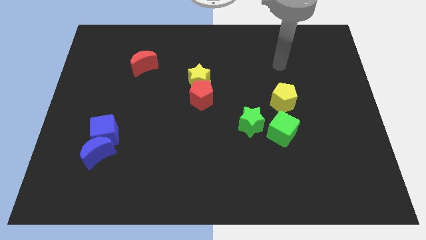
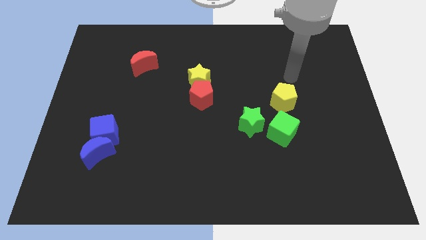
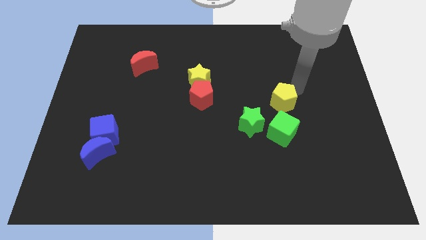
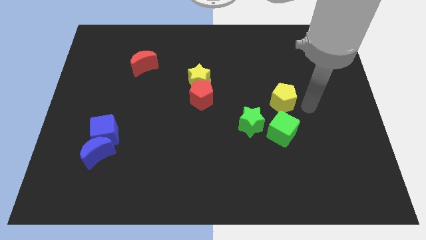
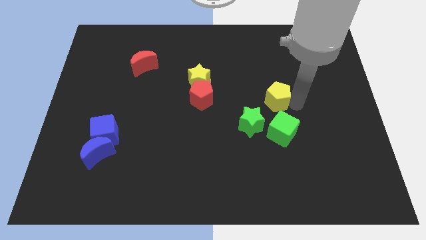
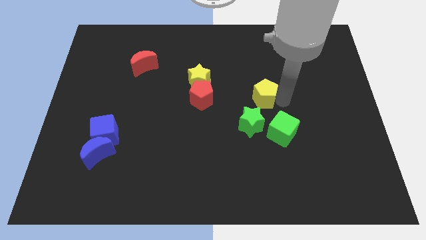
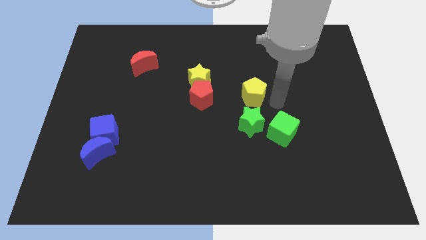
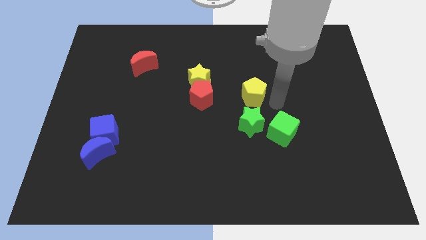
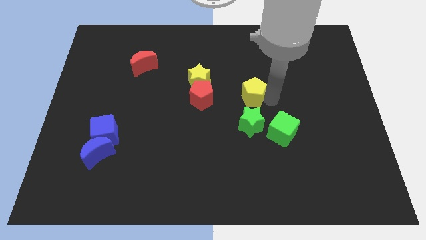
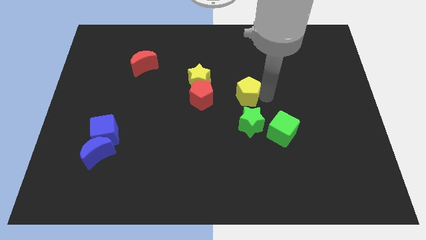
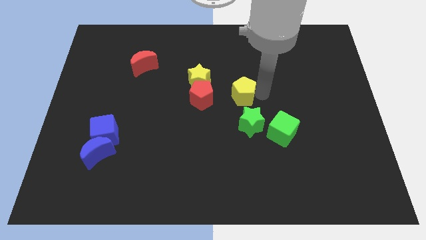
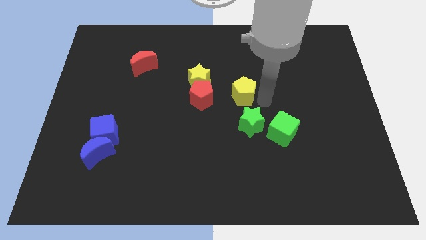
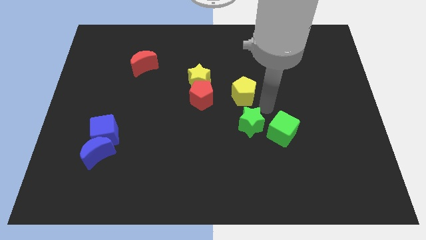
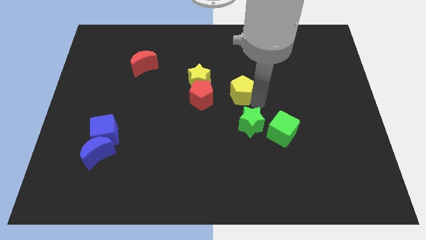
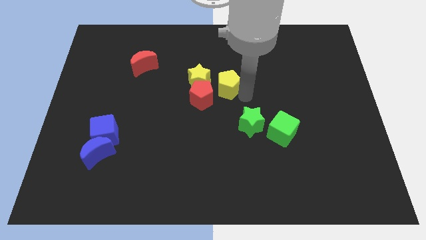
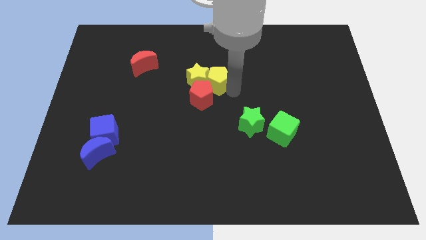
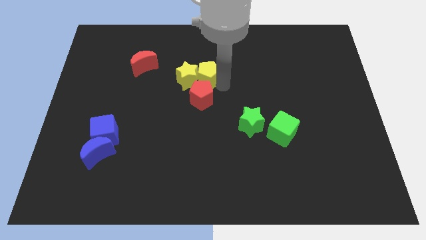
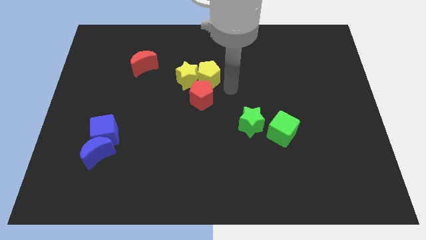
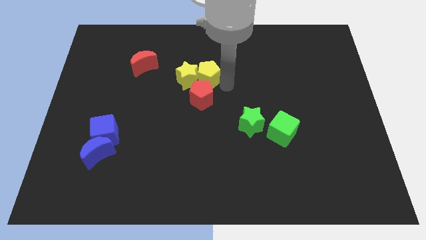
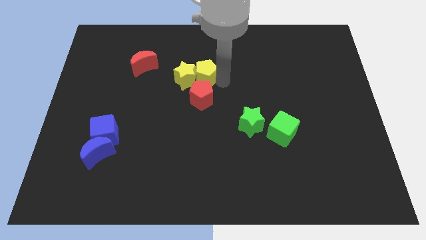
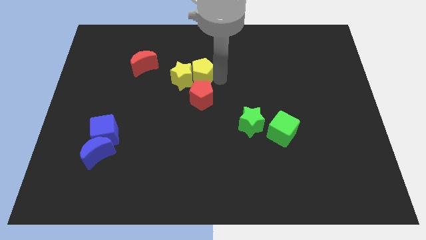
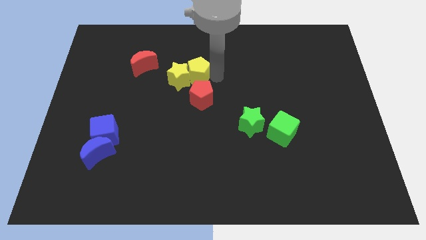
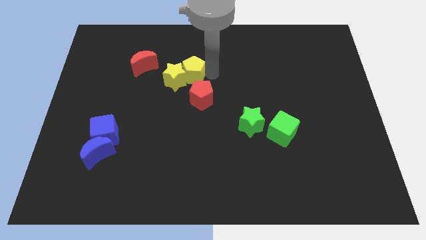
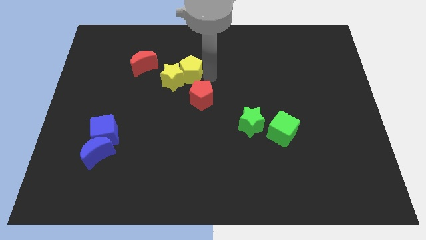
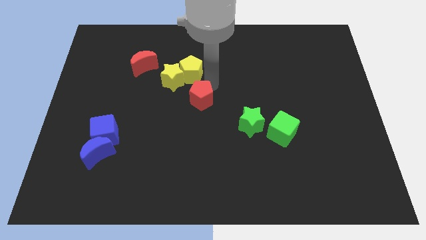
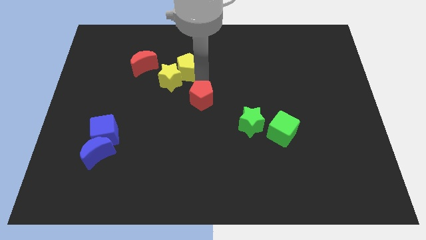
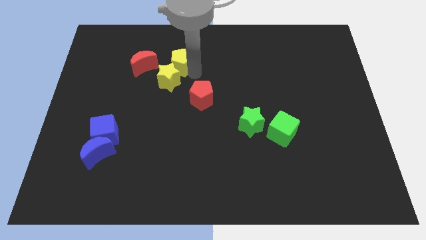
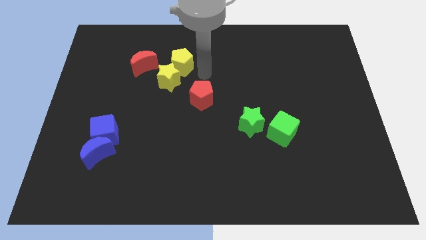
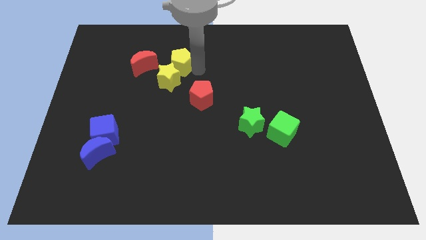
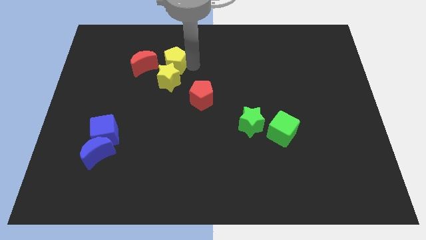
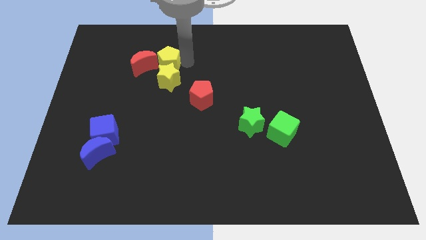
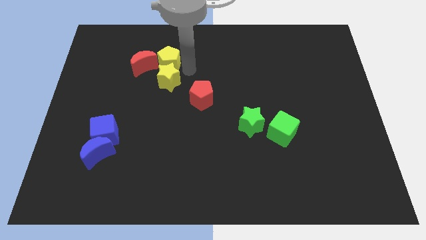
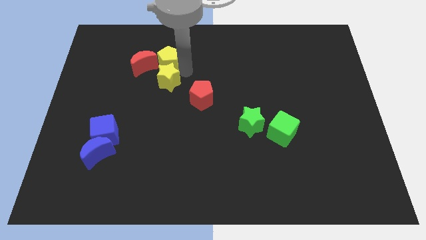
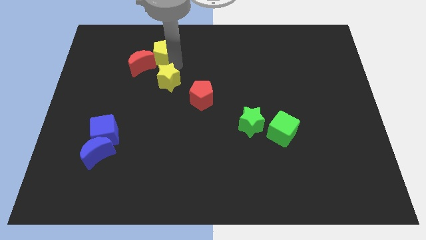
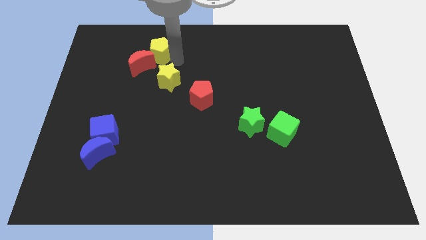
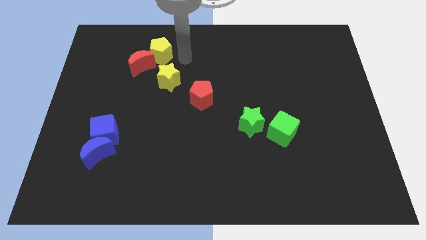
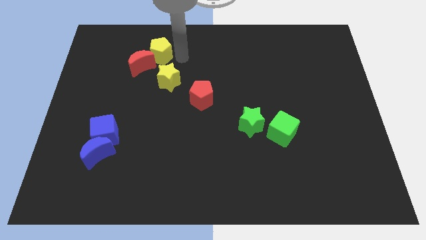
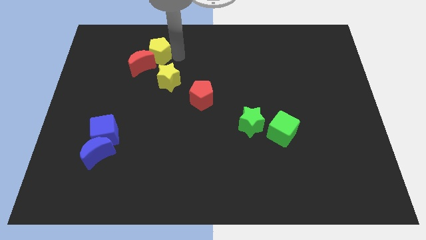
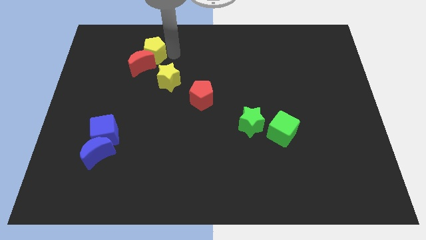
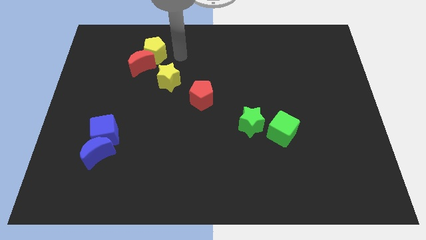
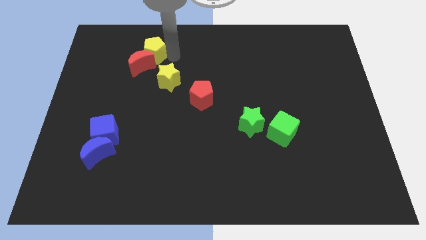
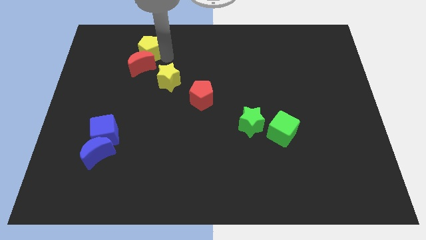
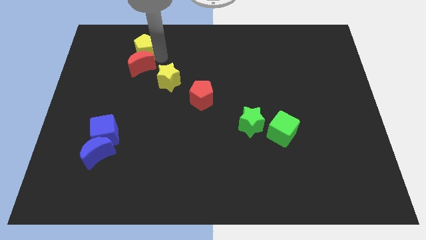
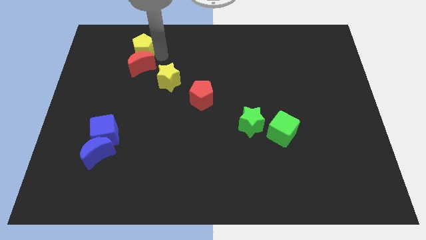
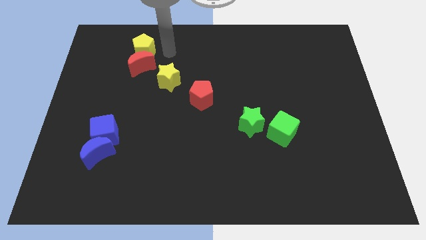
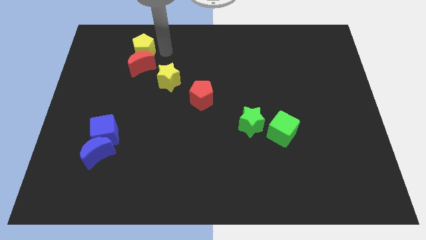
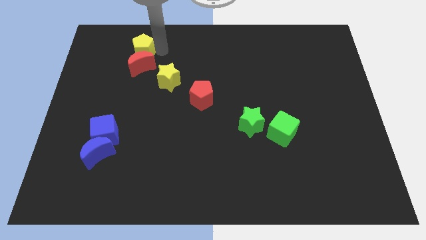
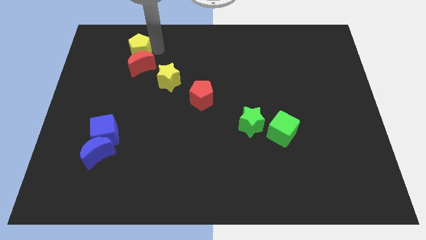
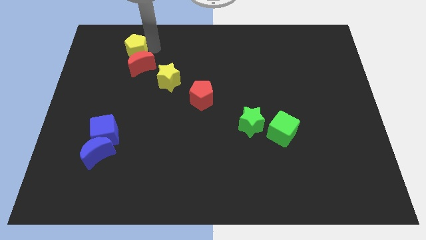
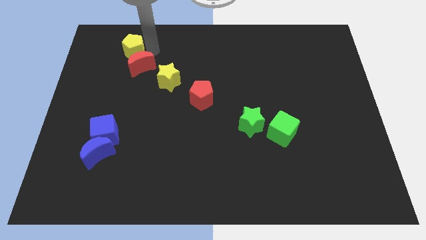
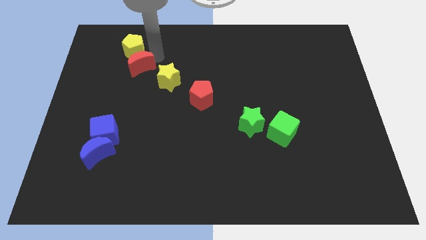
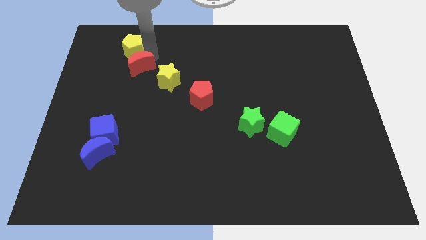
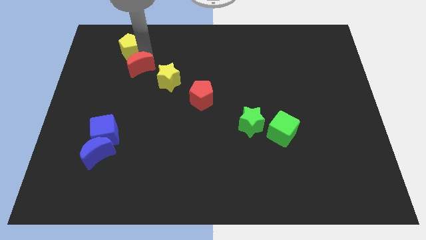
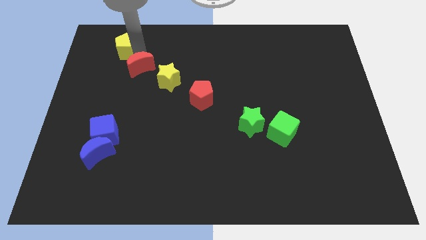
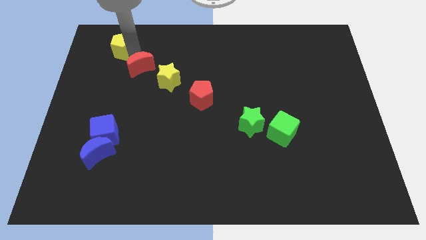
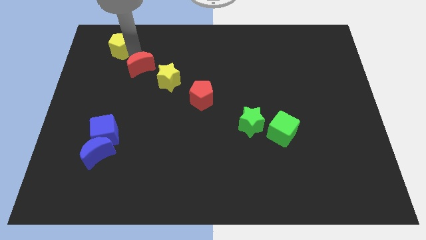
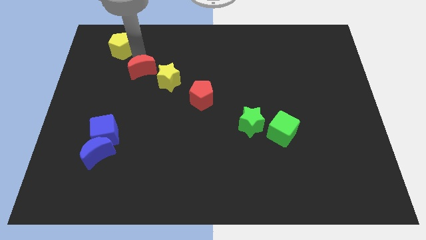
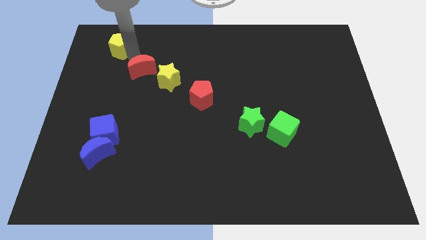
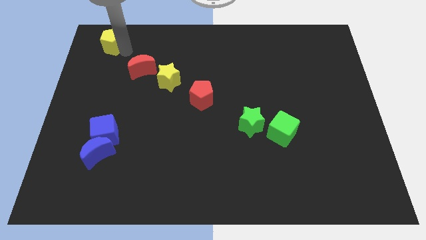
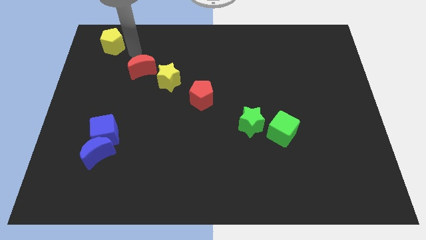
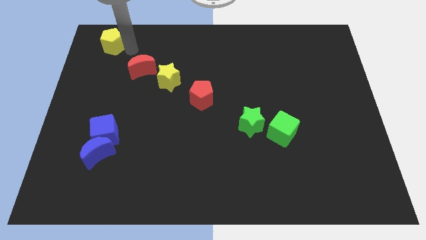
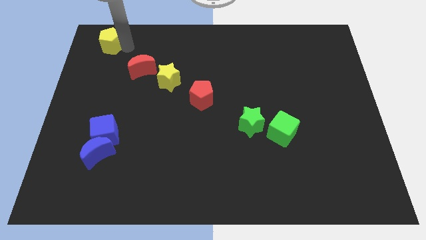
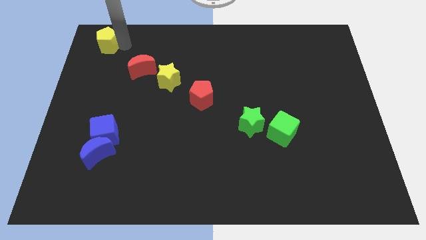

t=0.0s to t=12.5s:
slide the yellow pentagon to the top left corner
